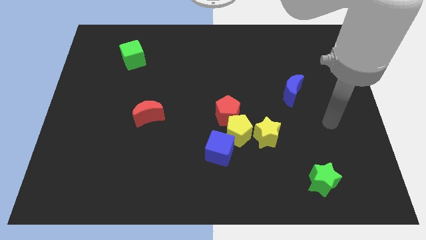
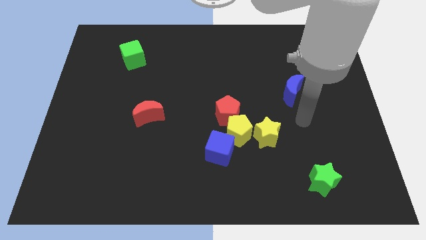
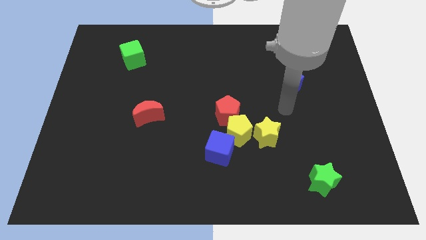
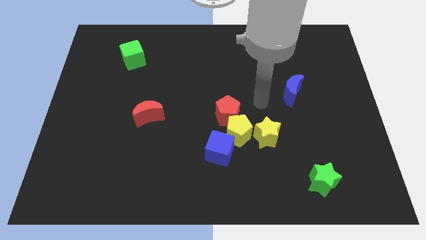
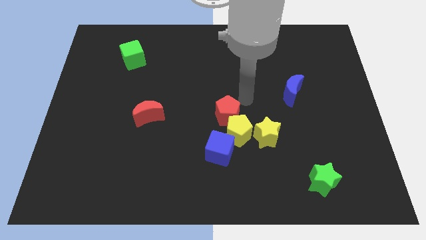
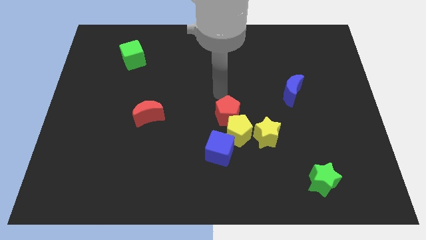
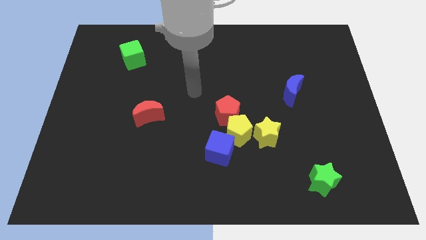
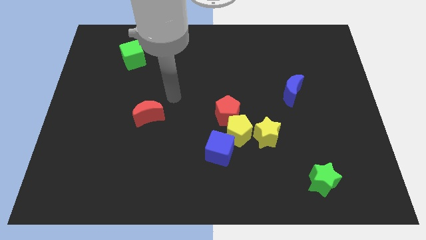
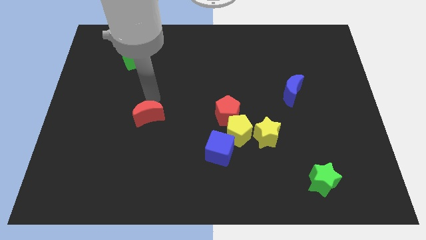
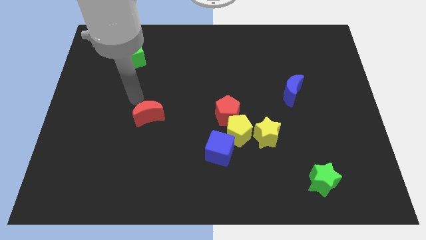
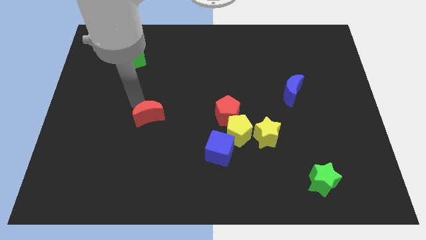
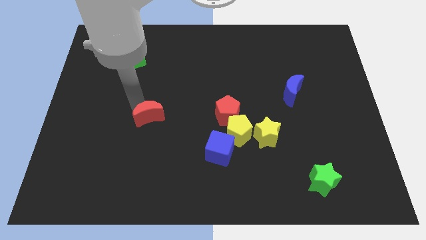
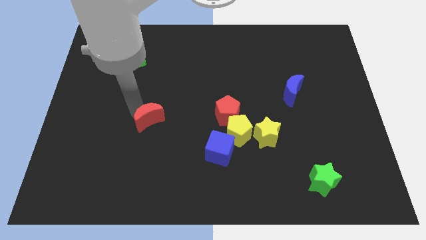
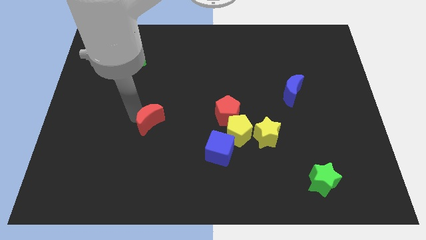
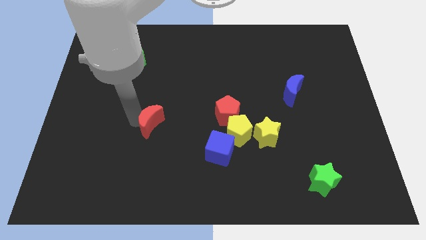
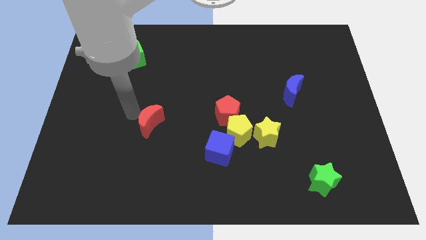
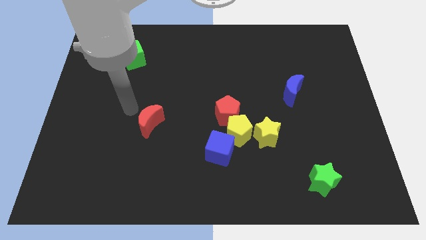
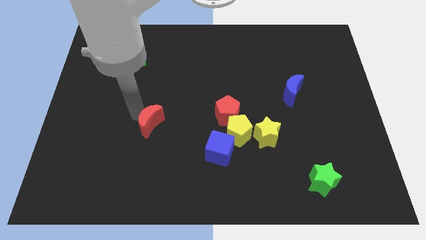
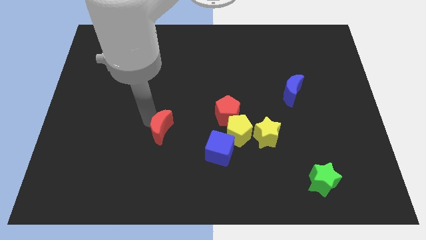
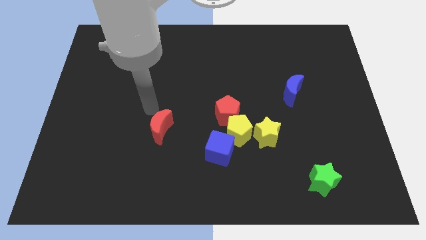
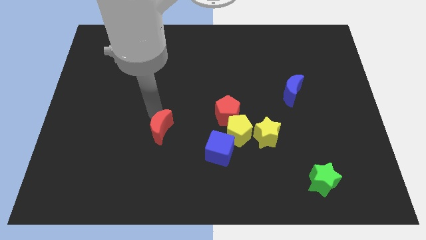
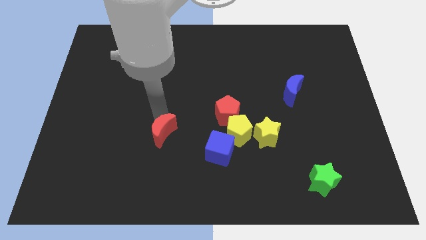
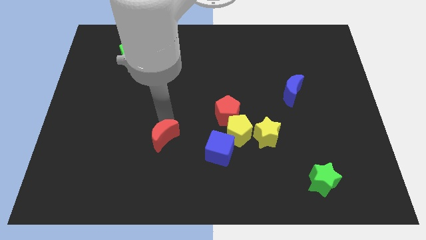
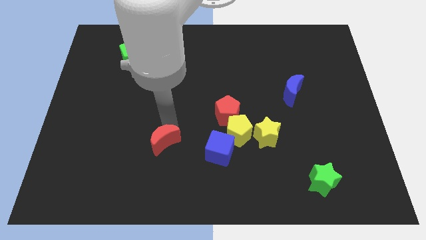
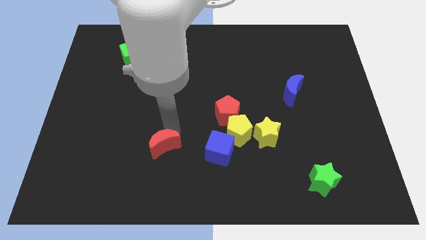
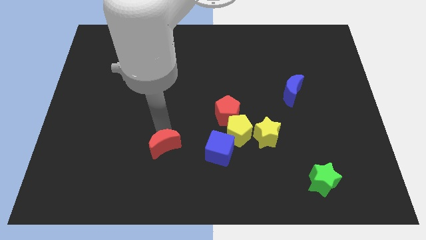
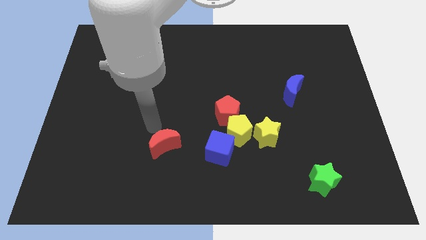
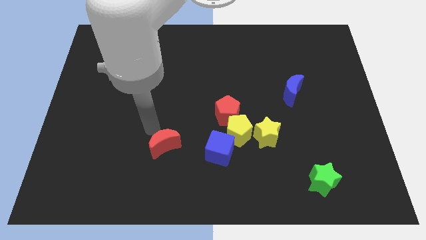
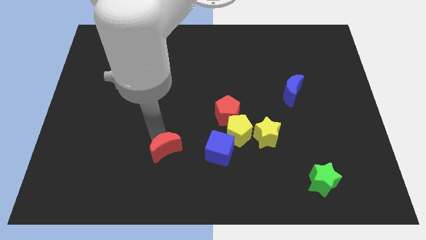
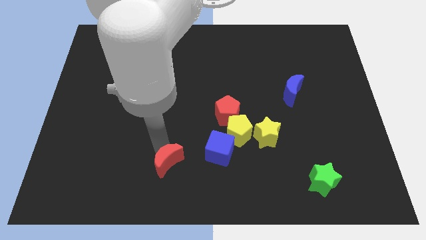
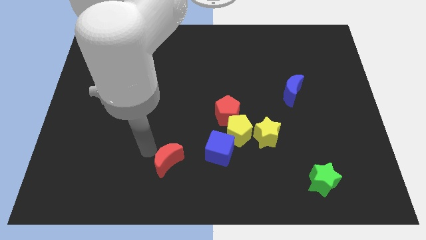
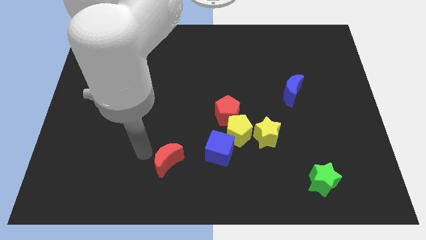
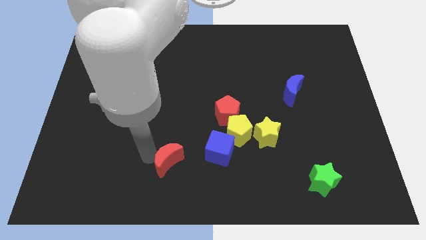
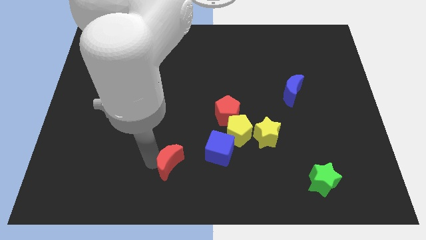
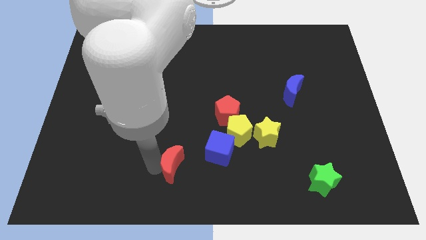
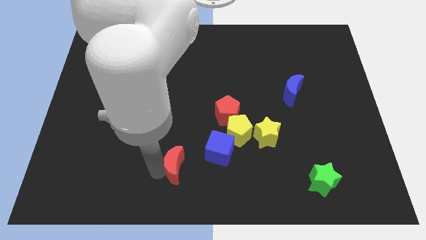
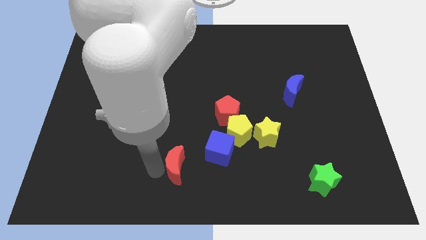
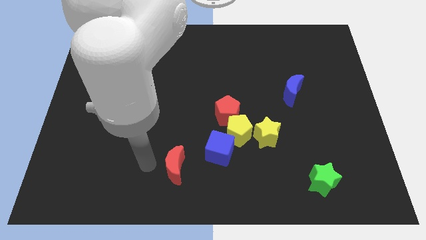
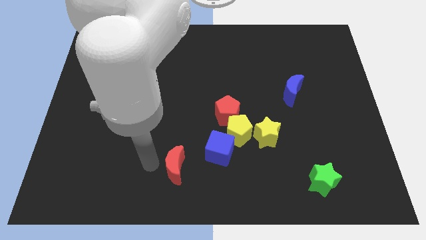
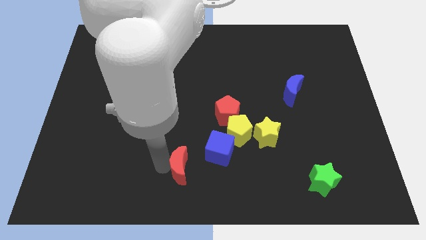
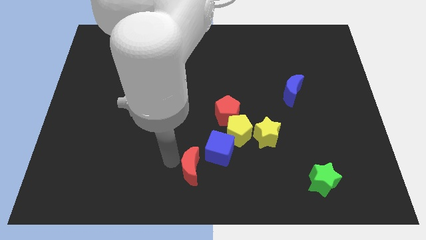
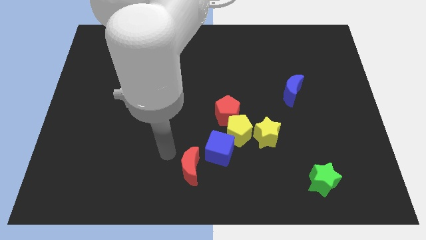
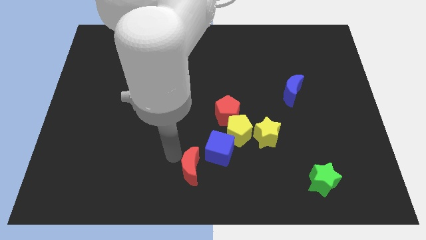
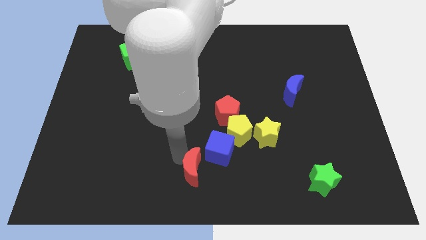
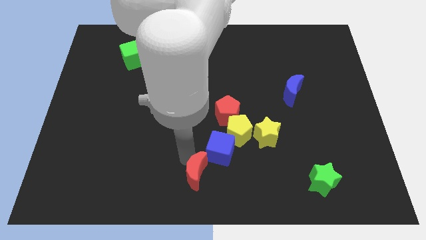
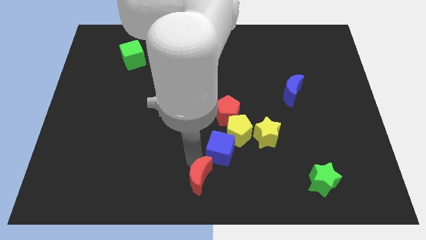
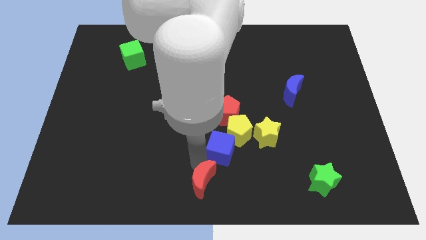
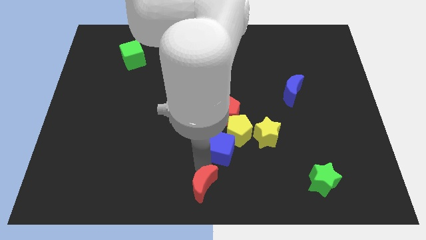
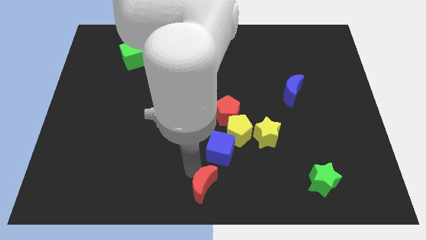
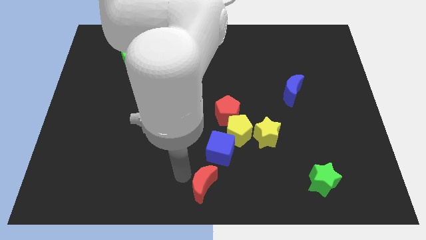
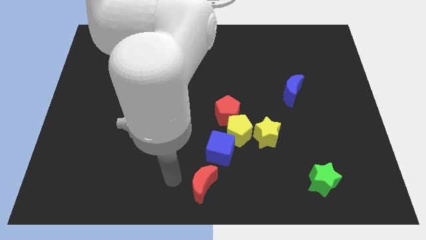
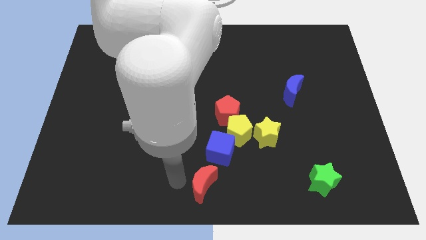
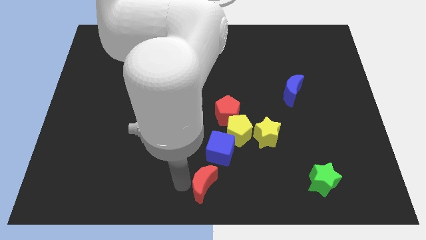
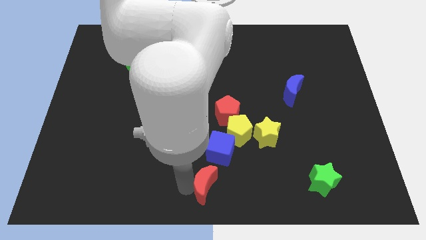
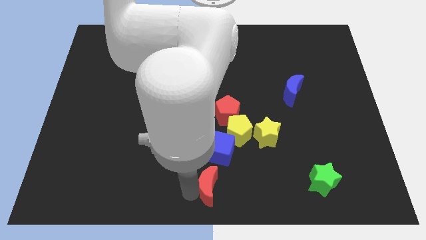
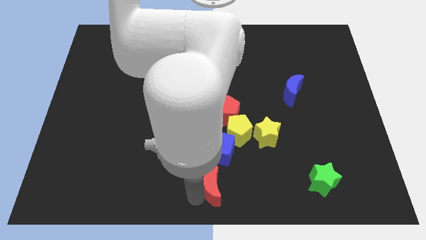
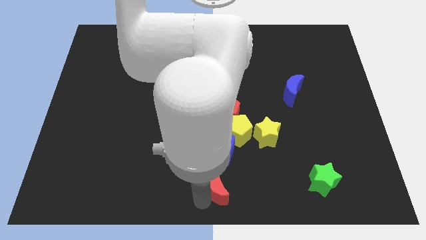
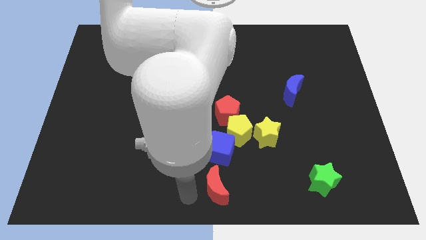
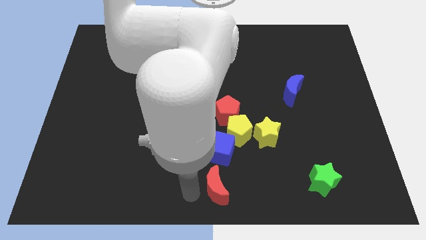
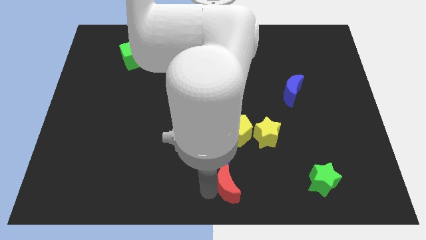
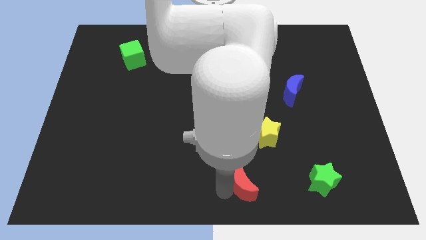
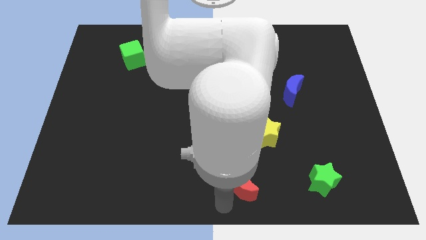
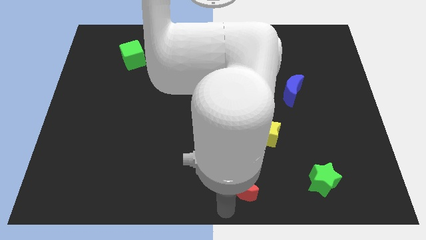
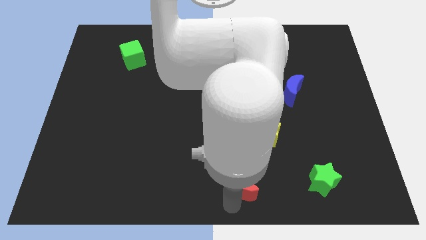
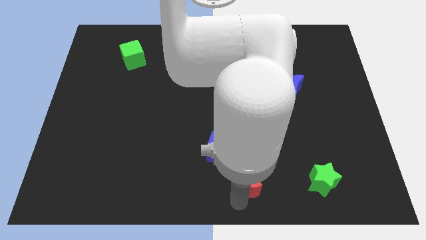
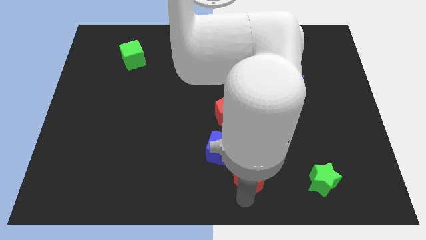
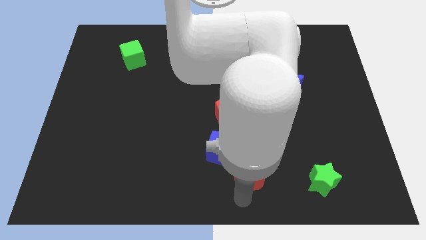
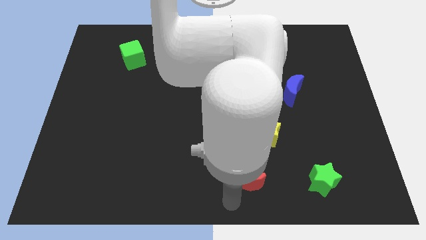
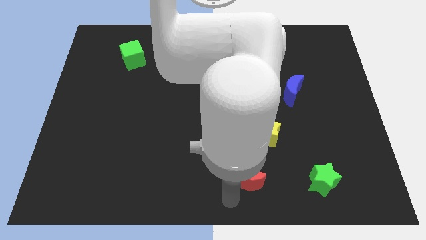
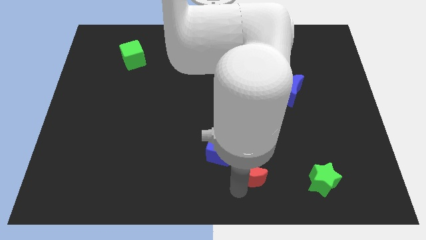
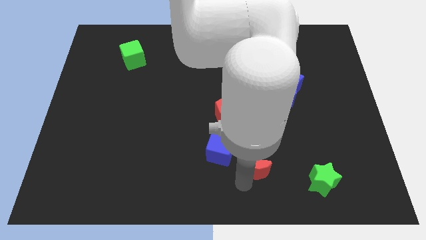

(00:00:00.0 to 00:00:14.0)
move the red moon to the bottom right side of the yellow pentagon

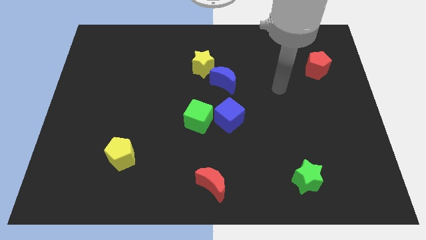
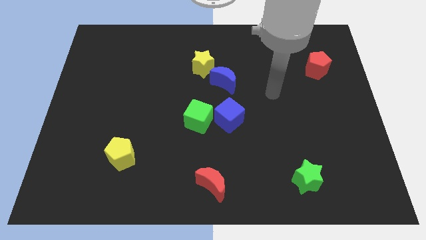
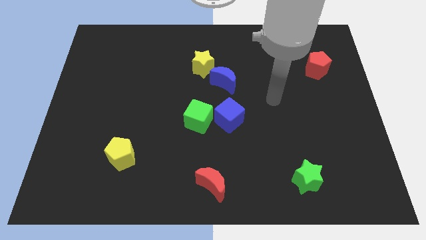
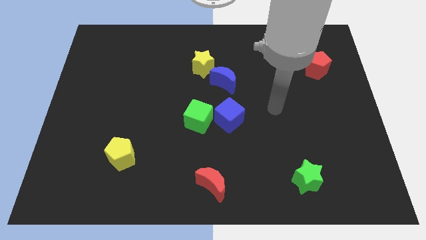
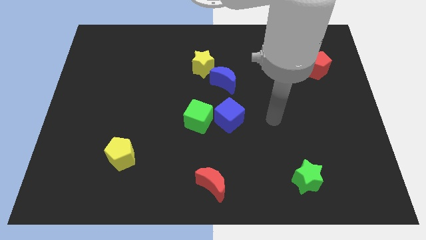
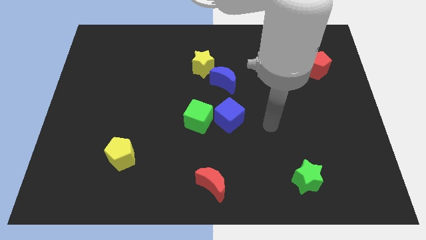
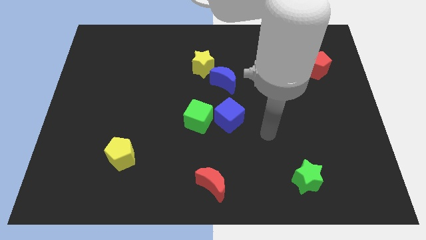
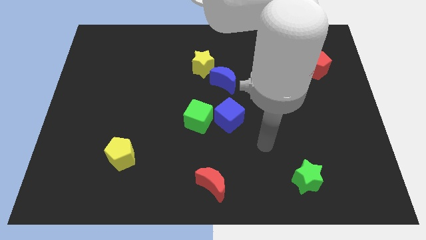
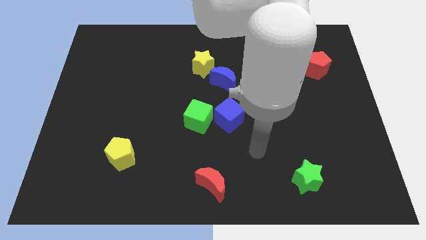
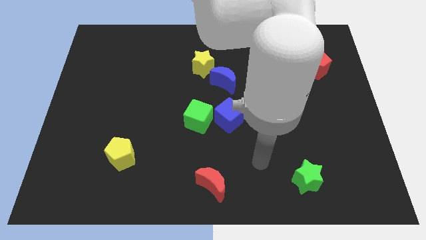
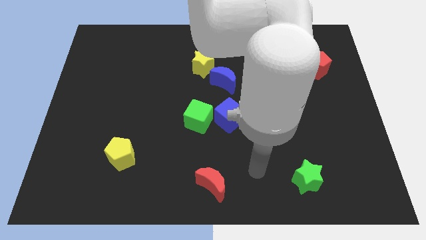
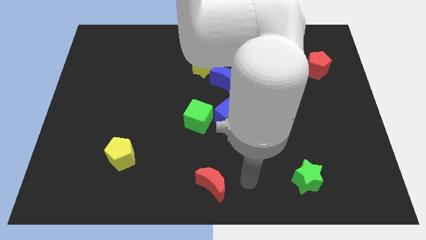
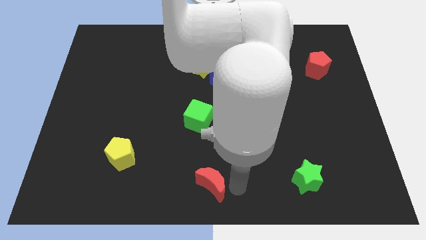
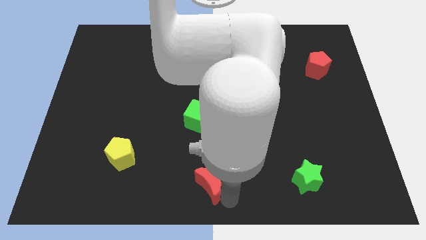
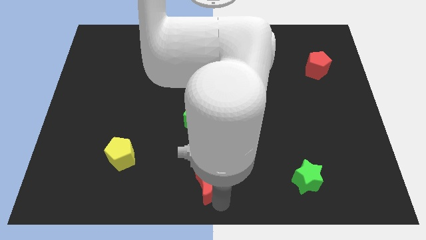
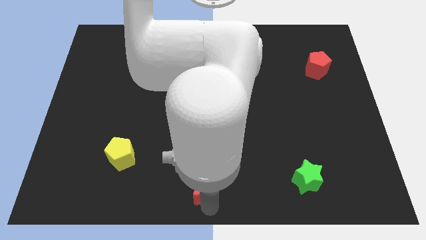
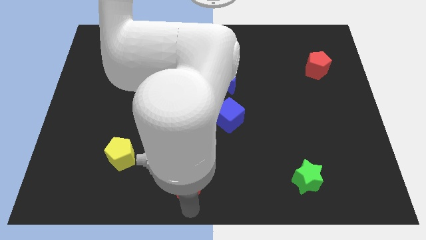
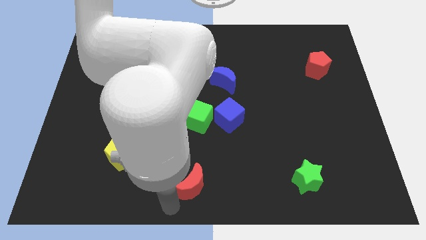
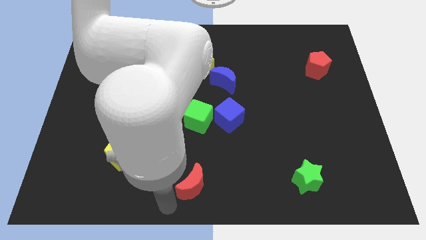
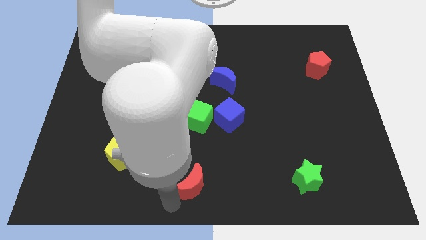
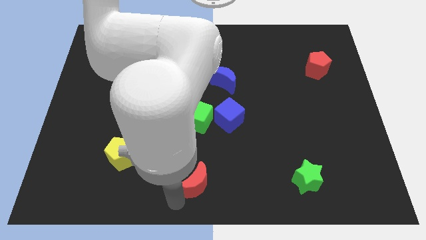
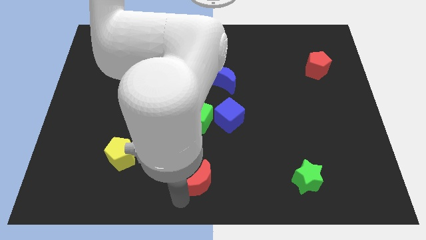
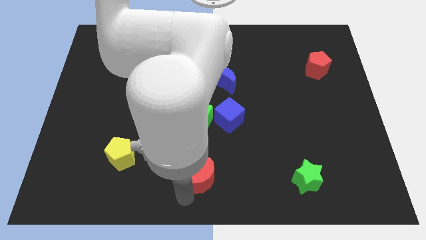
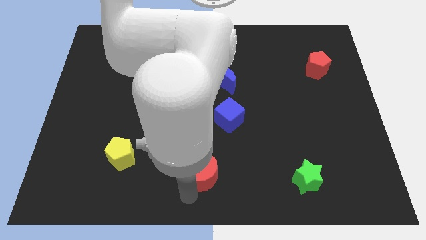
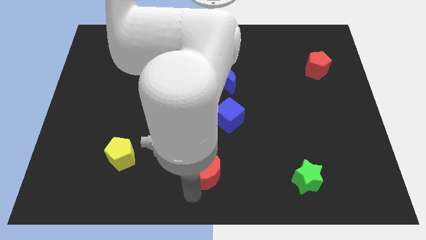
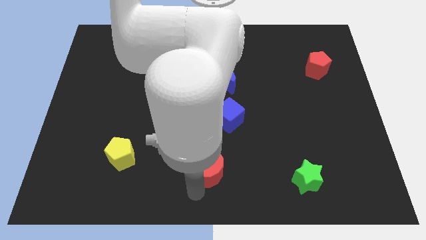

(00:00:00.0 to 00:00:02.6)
slide the red moon below the blue cube
